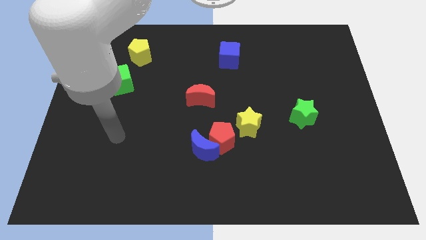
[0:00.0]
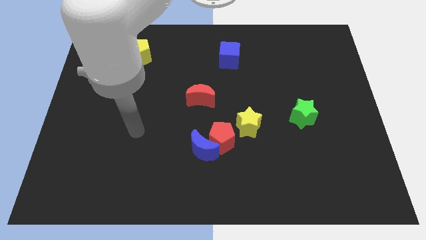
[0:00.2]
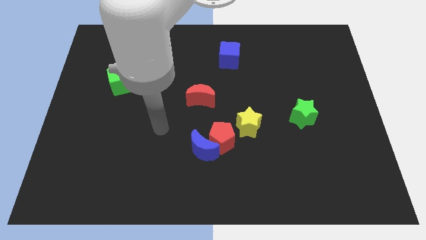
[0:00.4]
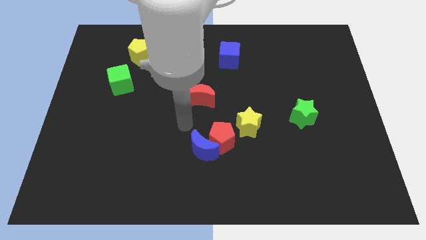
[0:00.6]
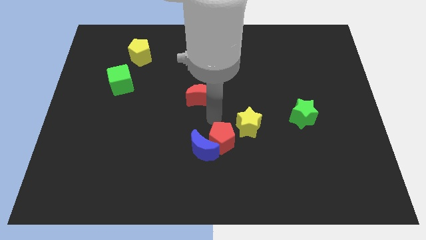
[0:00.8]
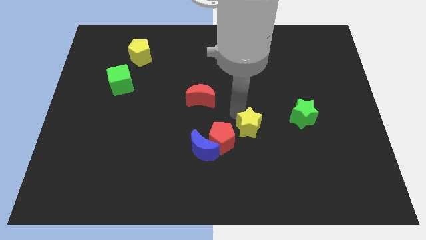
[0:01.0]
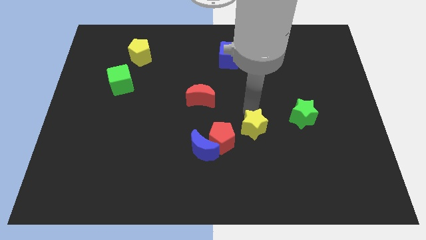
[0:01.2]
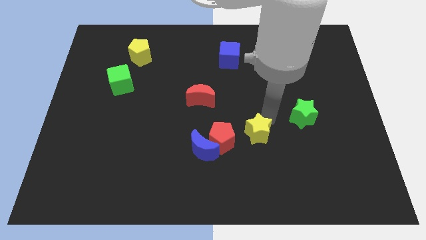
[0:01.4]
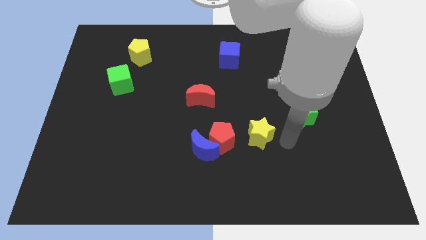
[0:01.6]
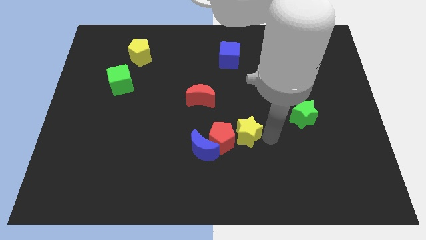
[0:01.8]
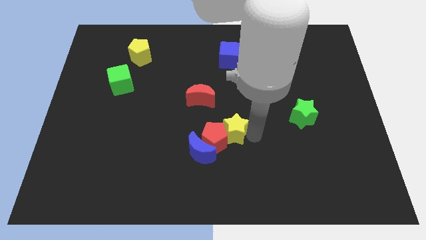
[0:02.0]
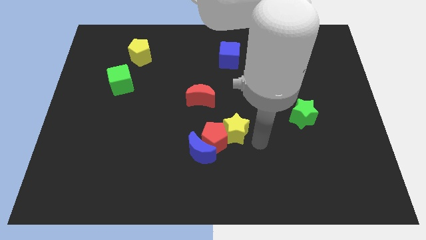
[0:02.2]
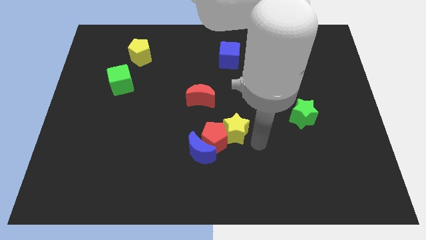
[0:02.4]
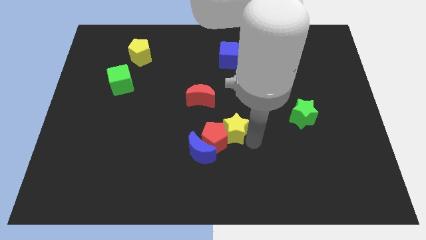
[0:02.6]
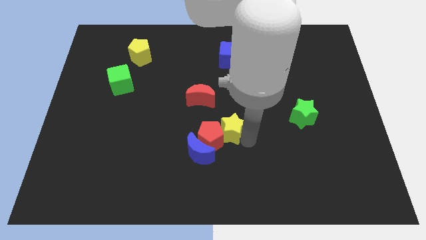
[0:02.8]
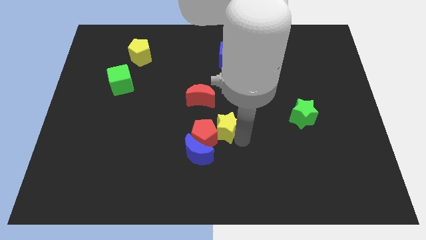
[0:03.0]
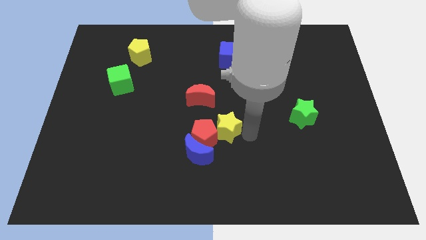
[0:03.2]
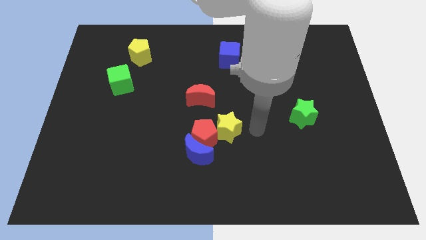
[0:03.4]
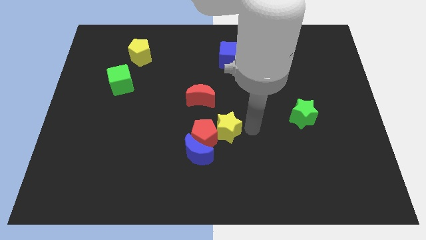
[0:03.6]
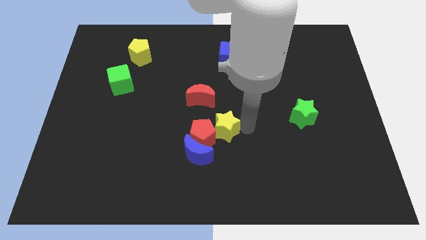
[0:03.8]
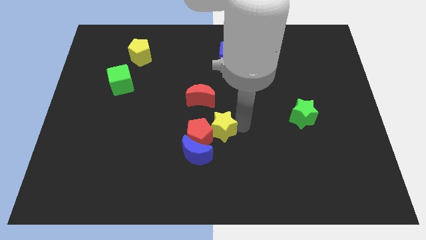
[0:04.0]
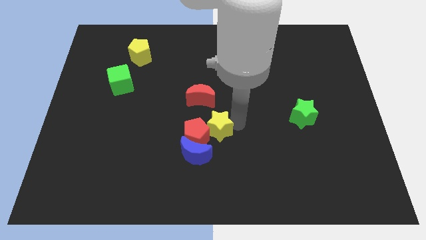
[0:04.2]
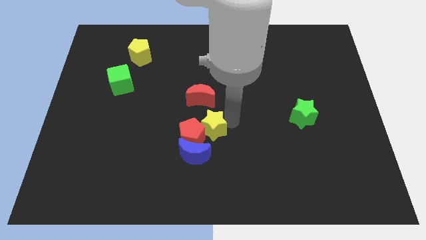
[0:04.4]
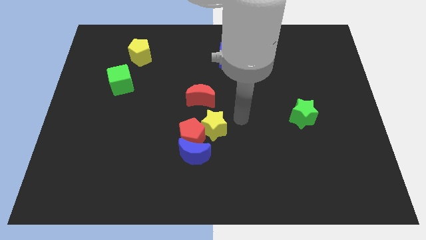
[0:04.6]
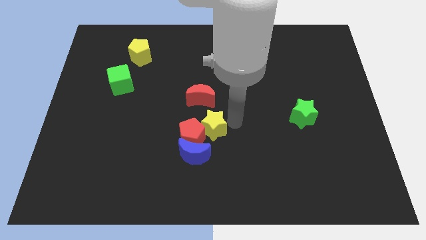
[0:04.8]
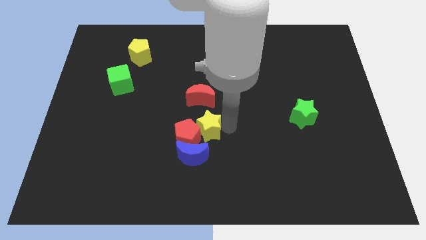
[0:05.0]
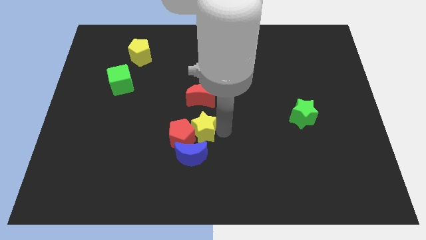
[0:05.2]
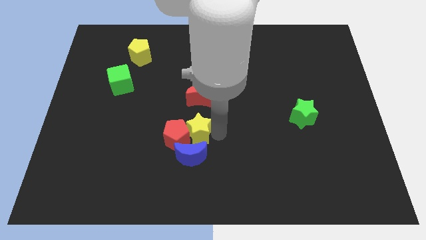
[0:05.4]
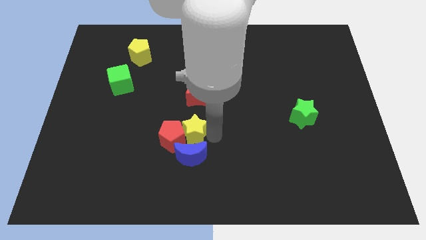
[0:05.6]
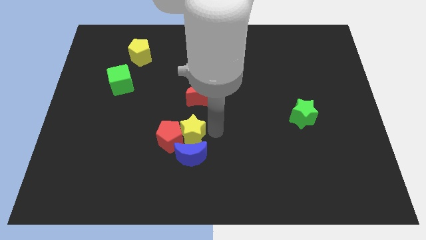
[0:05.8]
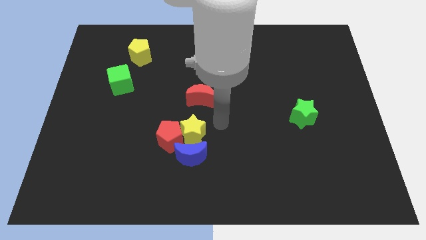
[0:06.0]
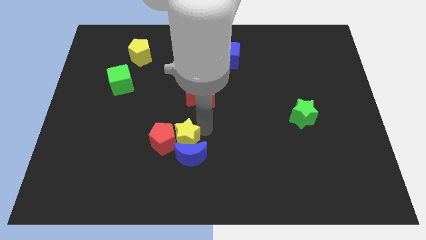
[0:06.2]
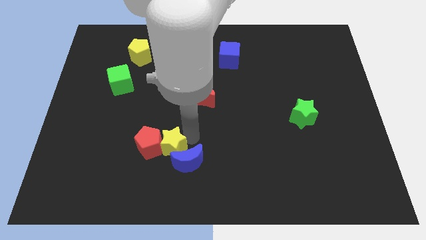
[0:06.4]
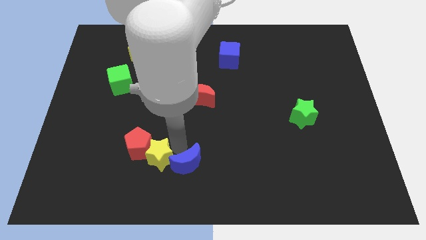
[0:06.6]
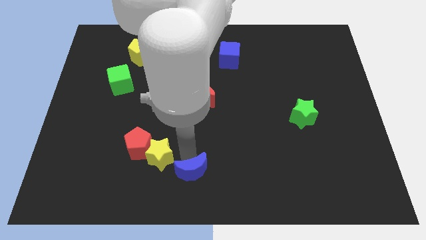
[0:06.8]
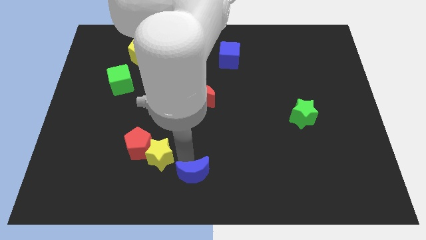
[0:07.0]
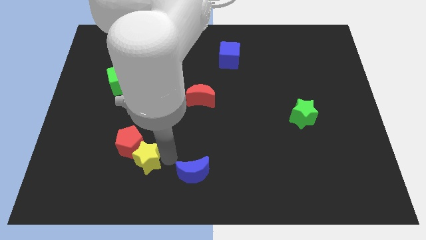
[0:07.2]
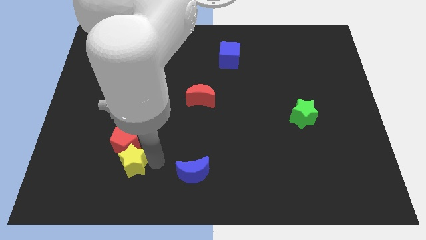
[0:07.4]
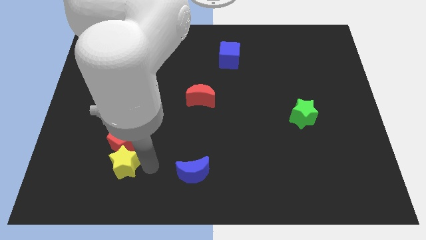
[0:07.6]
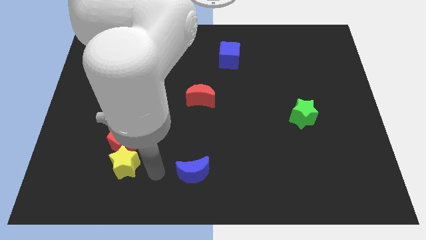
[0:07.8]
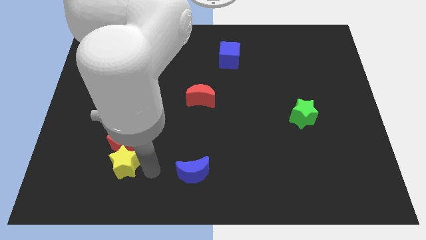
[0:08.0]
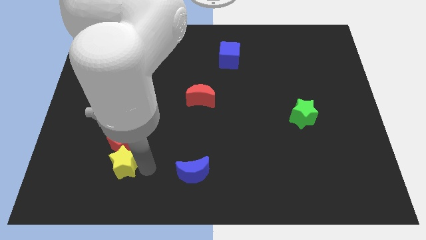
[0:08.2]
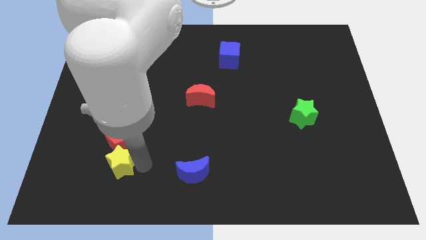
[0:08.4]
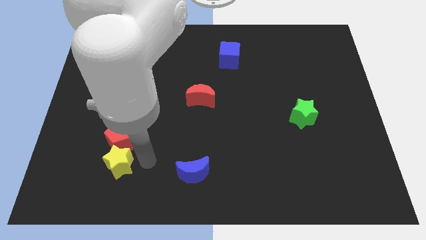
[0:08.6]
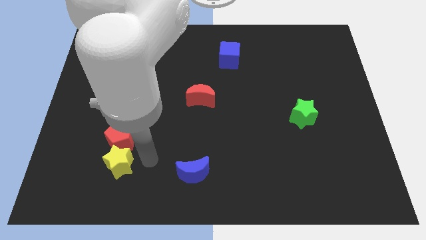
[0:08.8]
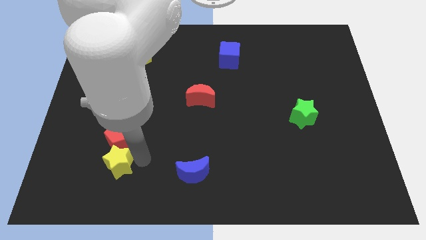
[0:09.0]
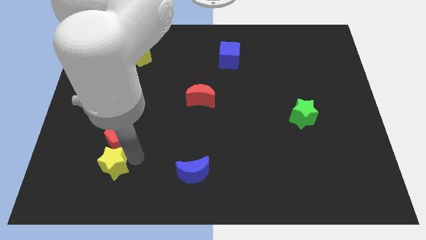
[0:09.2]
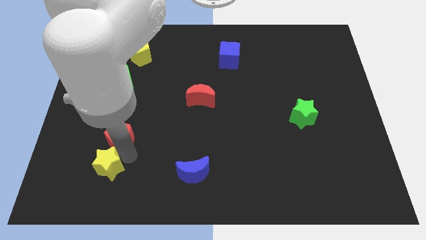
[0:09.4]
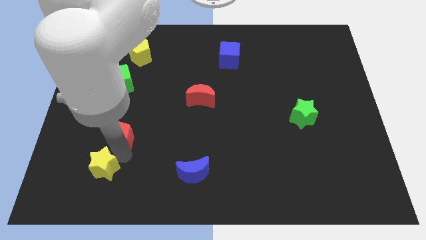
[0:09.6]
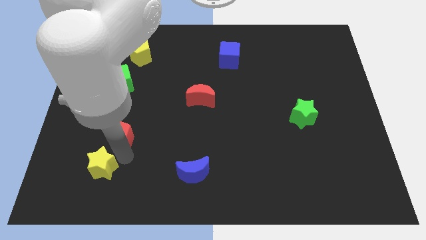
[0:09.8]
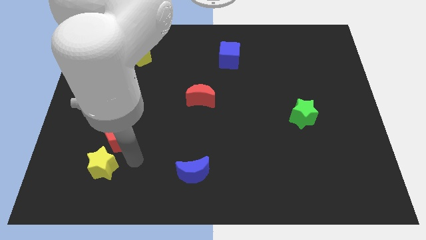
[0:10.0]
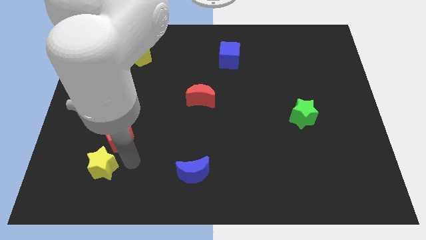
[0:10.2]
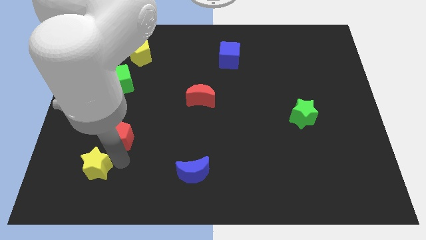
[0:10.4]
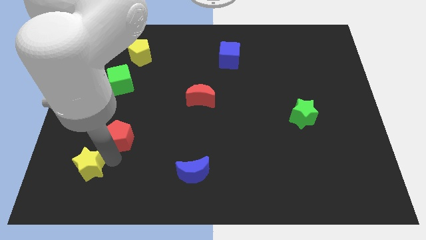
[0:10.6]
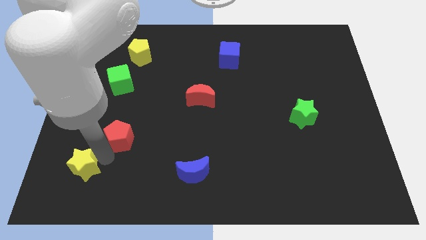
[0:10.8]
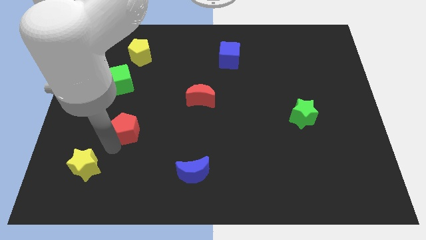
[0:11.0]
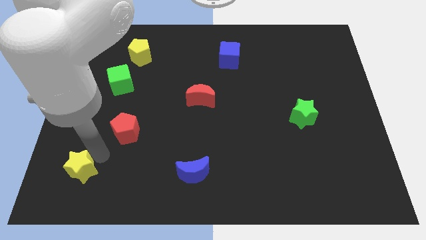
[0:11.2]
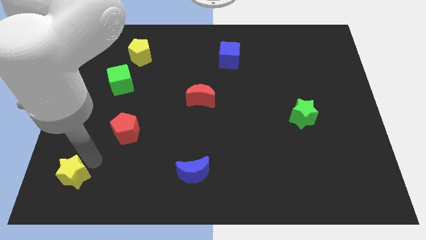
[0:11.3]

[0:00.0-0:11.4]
push the yellow star to the bottom left of the board

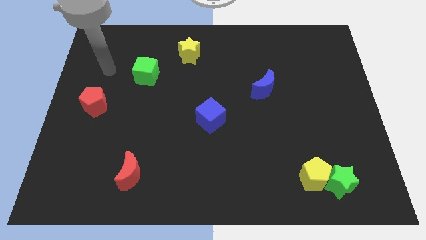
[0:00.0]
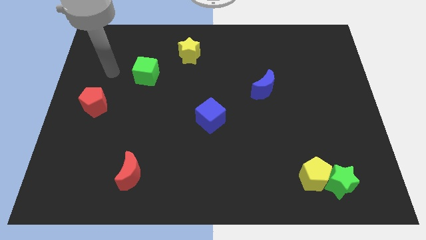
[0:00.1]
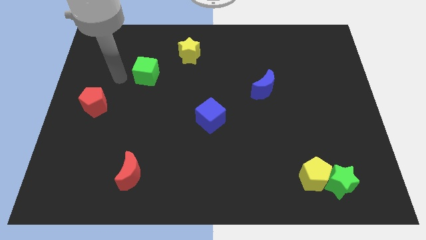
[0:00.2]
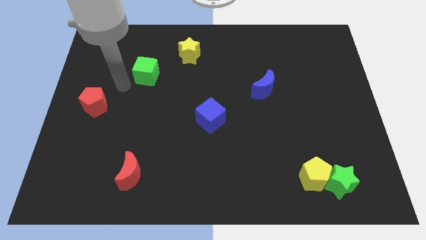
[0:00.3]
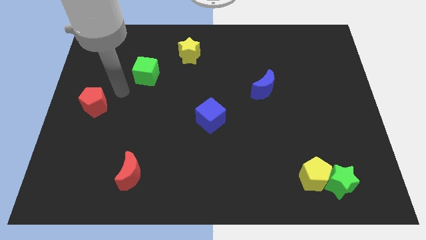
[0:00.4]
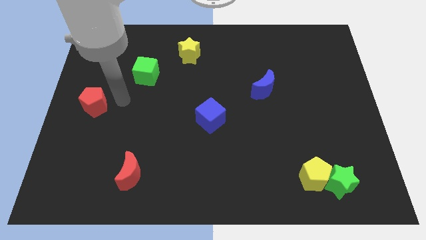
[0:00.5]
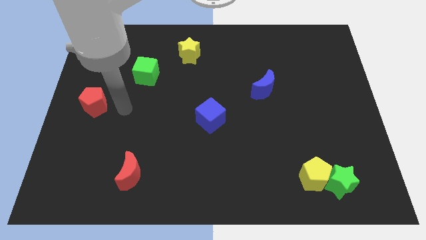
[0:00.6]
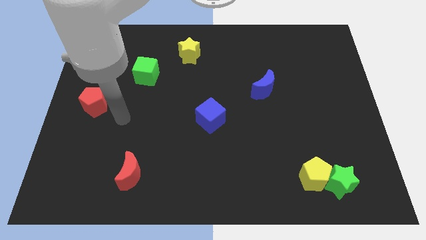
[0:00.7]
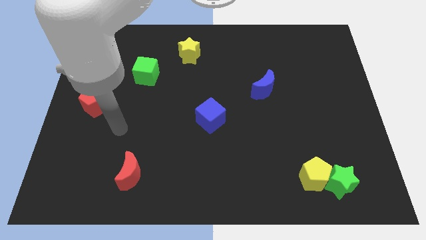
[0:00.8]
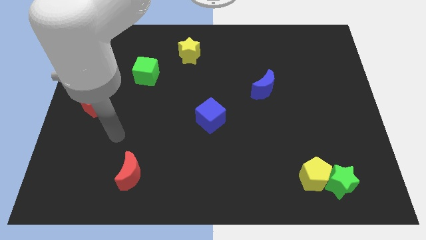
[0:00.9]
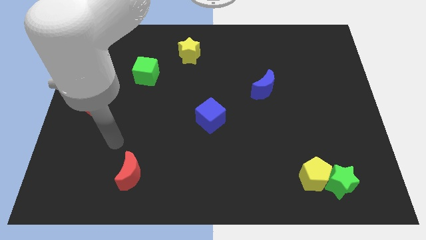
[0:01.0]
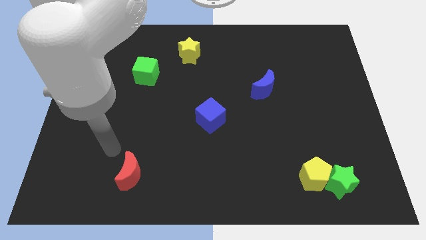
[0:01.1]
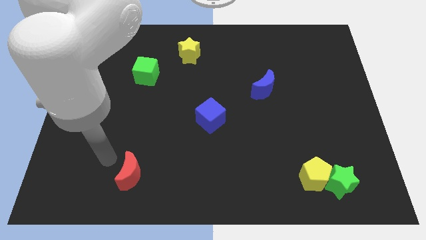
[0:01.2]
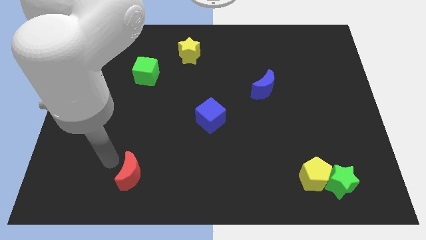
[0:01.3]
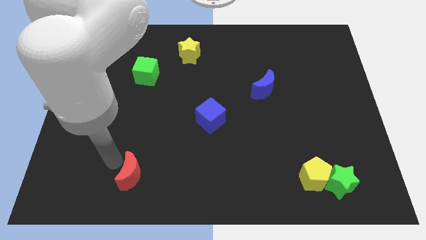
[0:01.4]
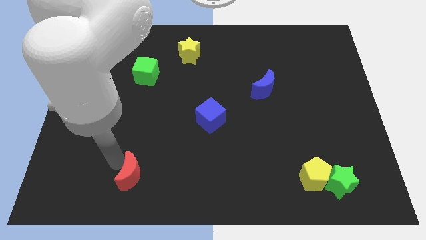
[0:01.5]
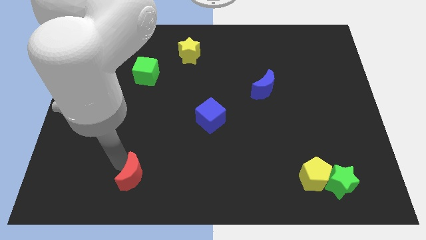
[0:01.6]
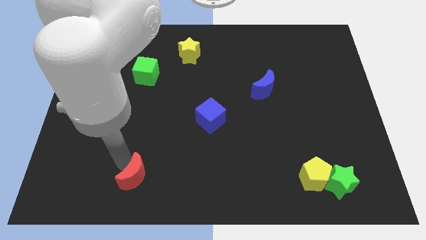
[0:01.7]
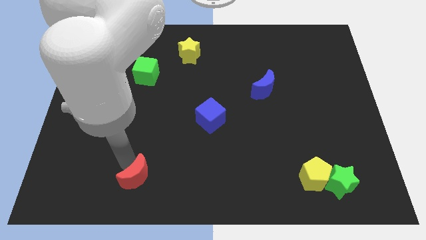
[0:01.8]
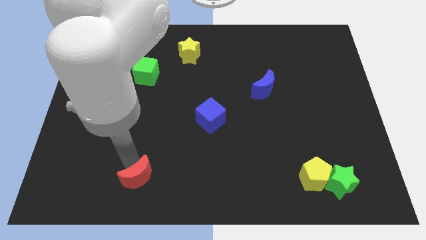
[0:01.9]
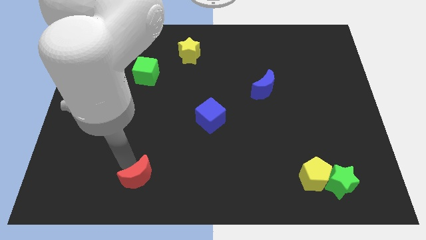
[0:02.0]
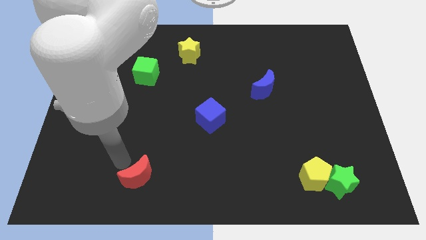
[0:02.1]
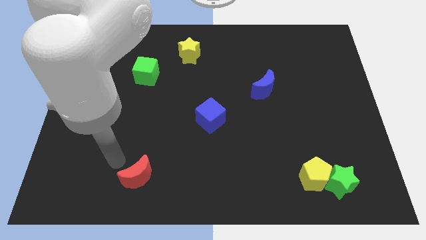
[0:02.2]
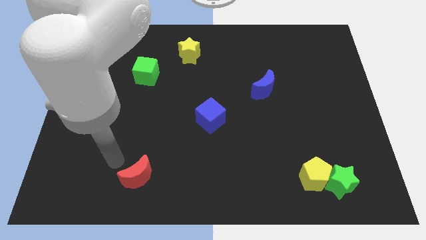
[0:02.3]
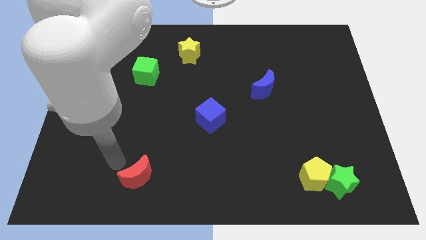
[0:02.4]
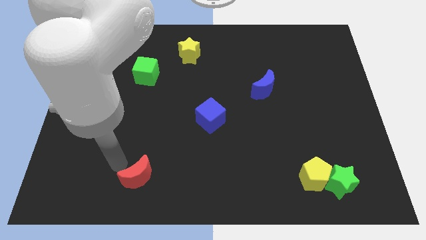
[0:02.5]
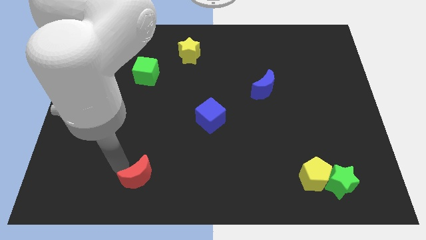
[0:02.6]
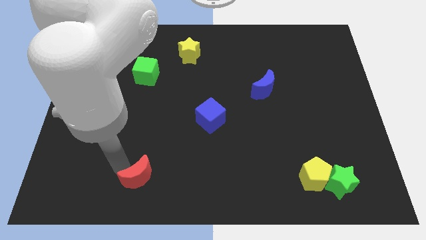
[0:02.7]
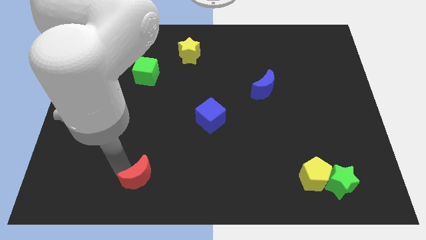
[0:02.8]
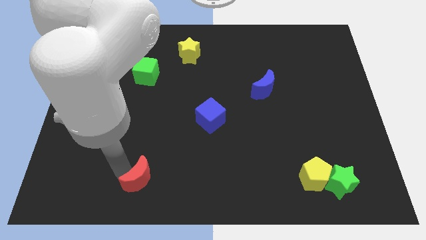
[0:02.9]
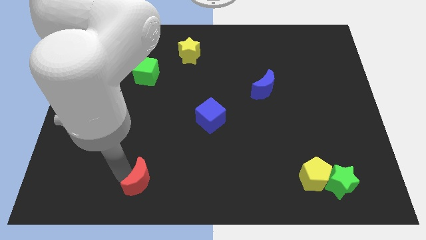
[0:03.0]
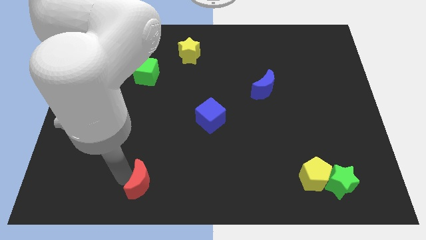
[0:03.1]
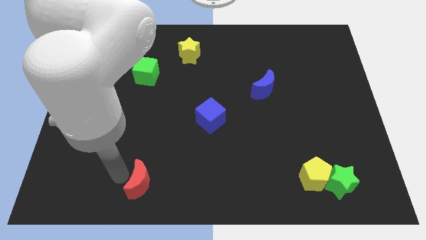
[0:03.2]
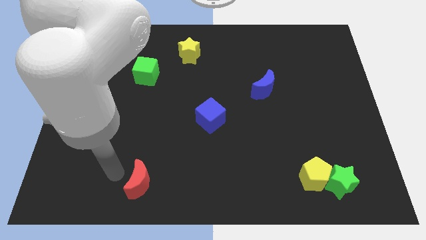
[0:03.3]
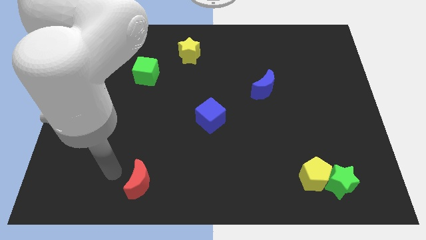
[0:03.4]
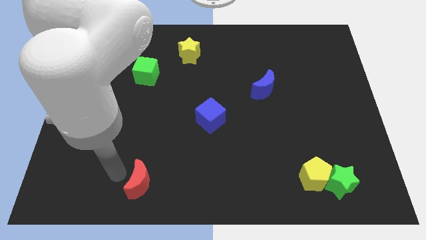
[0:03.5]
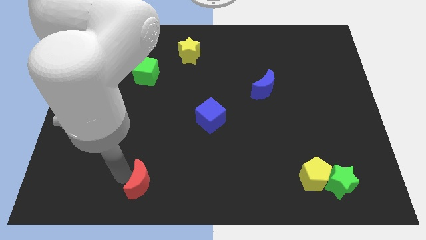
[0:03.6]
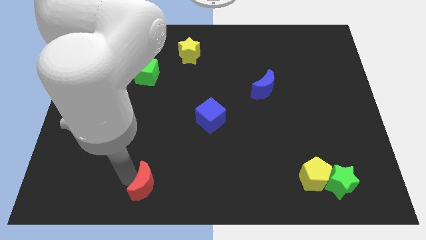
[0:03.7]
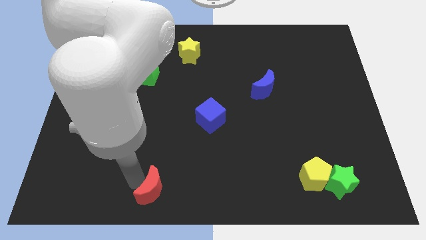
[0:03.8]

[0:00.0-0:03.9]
put the red moon to the bottom side
